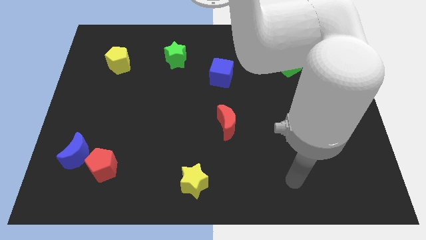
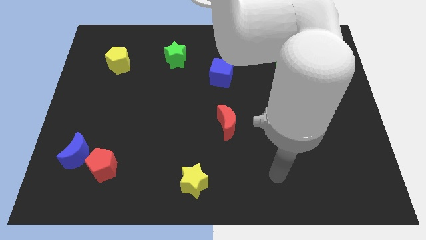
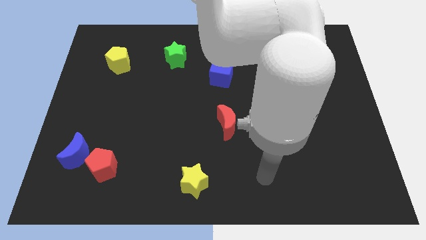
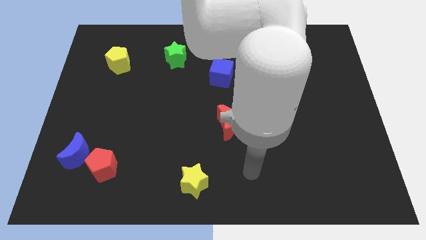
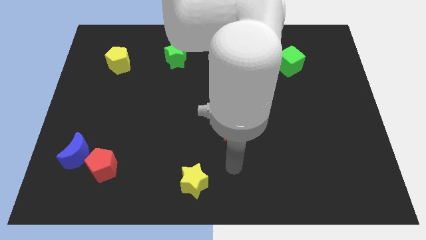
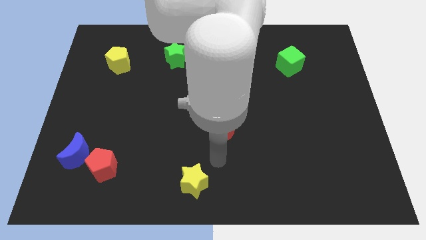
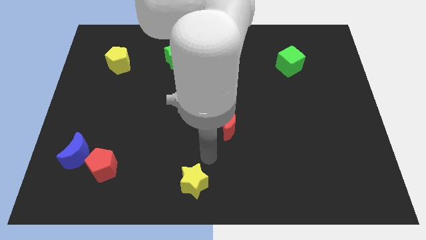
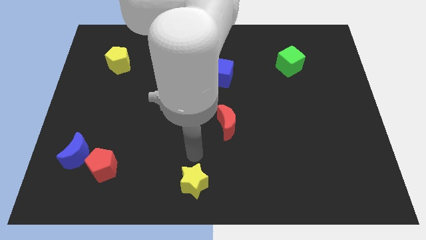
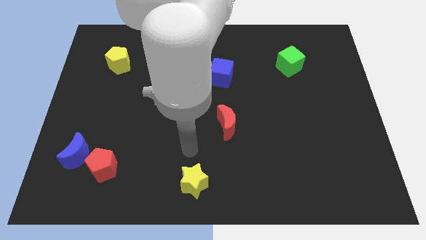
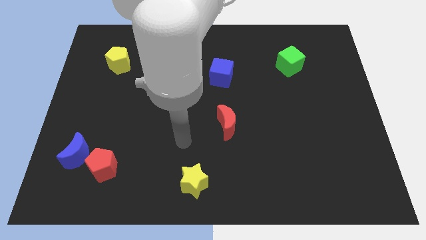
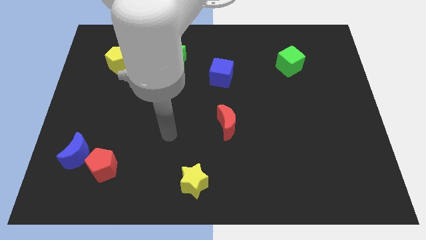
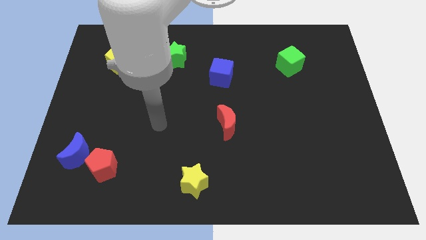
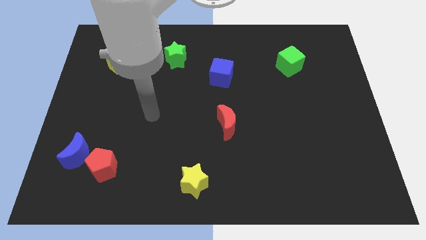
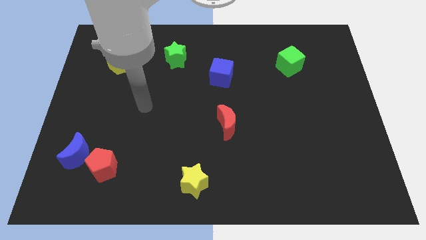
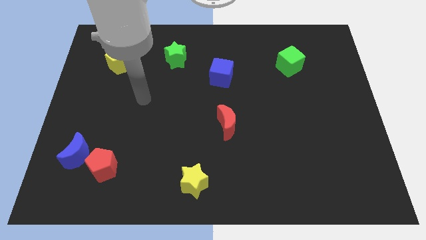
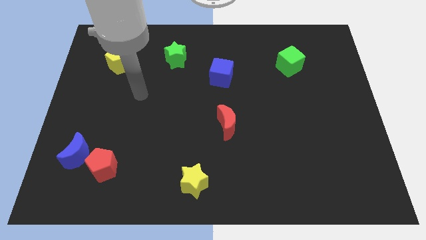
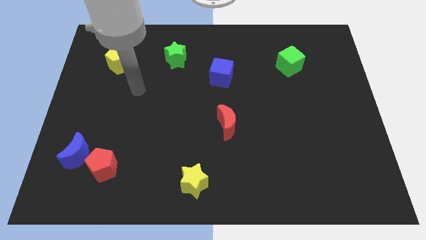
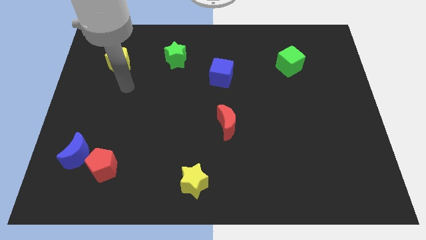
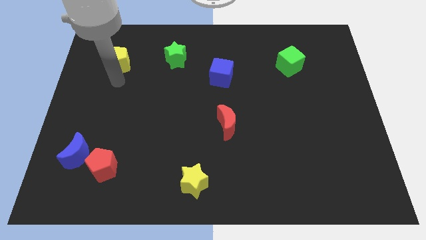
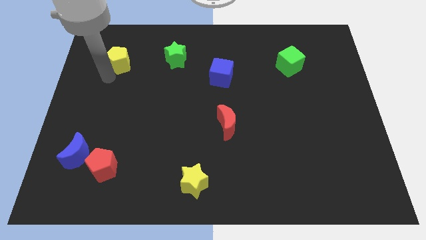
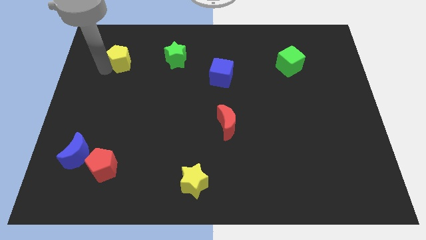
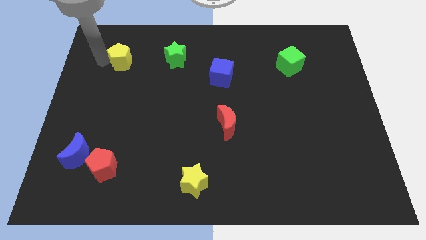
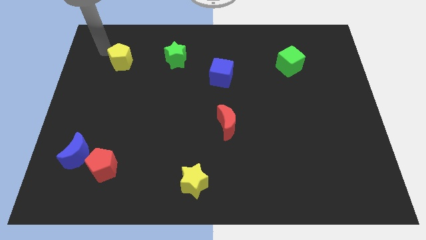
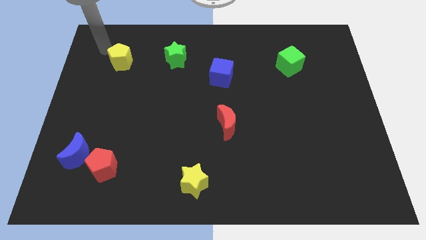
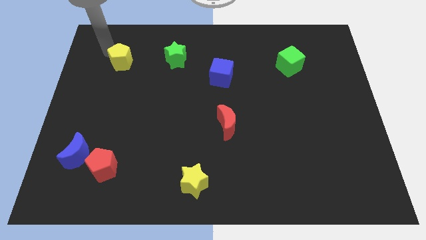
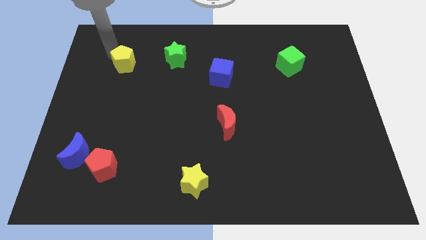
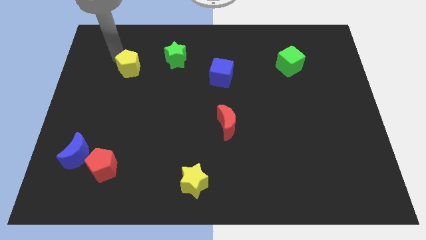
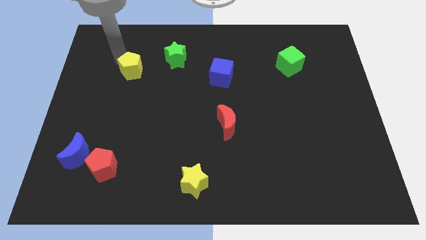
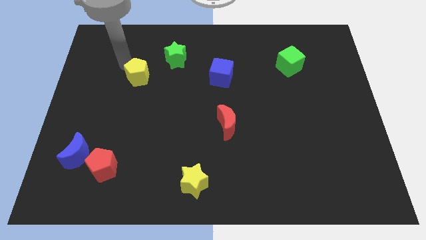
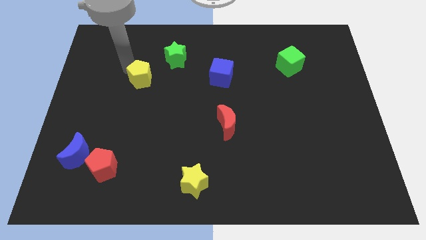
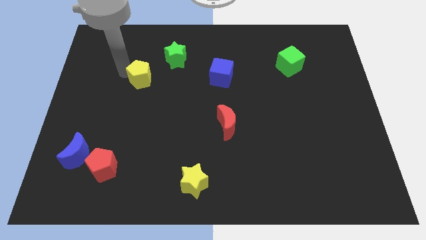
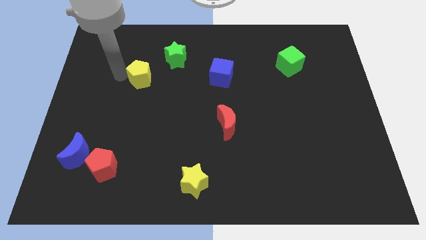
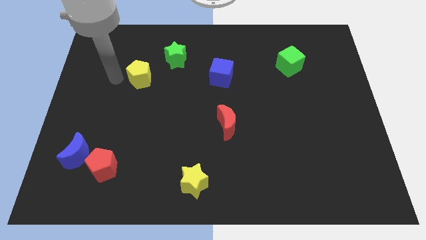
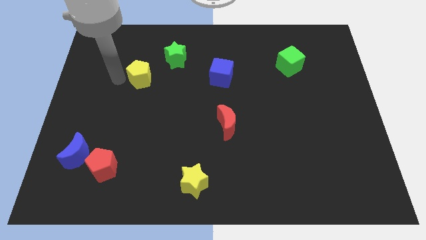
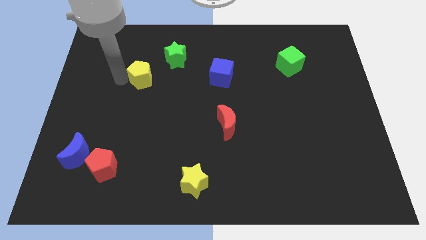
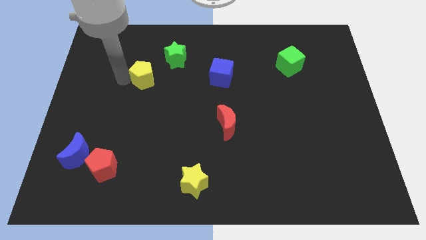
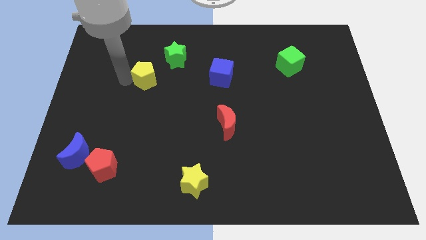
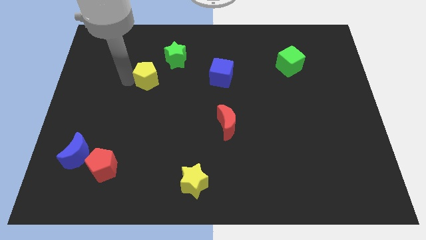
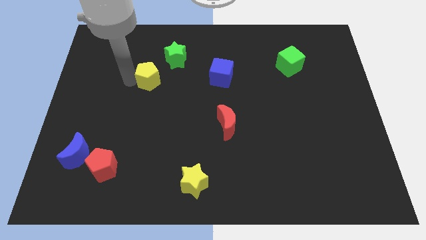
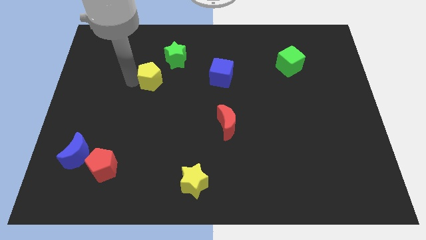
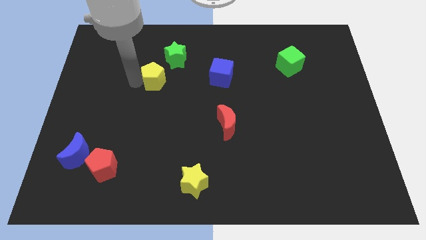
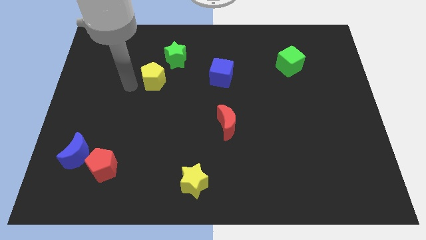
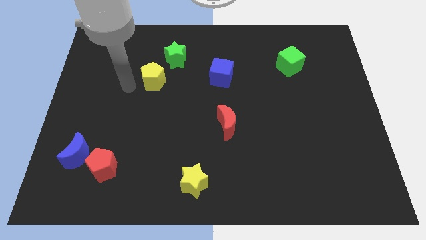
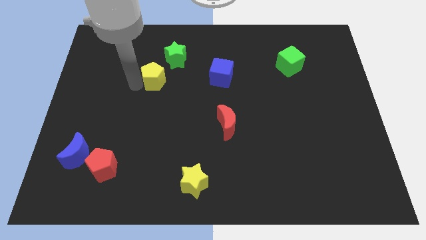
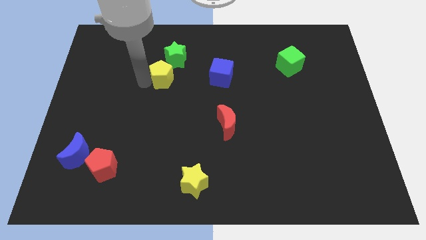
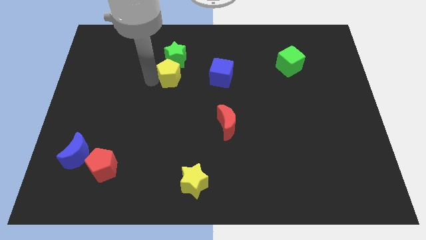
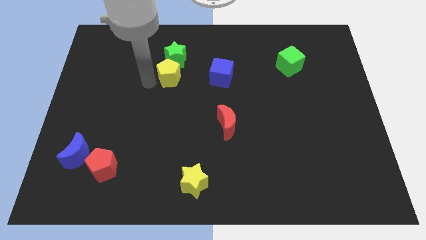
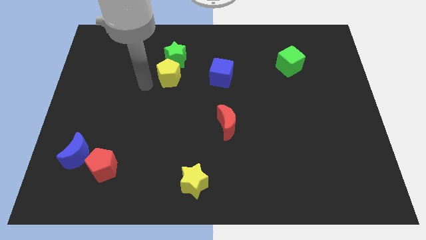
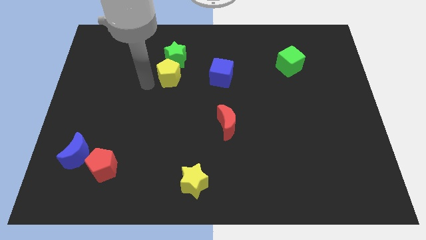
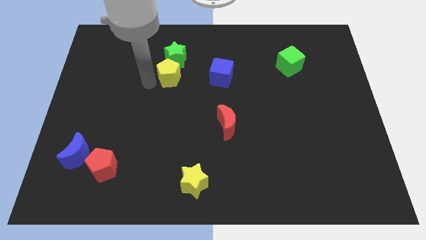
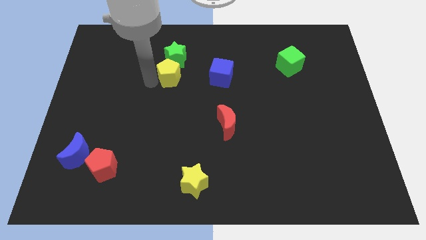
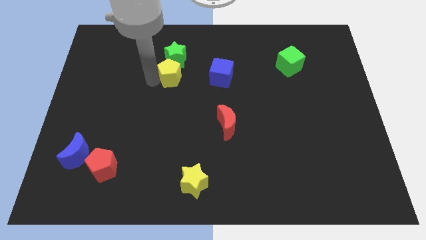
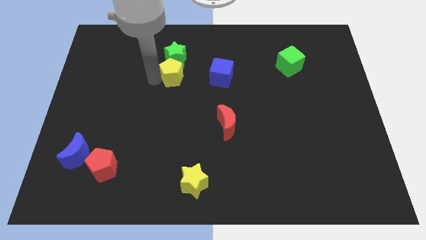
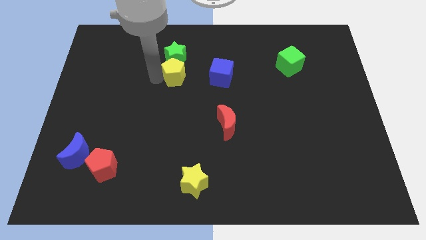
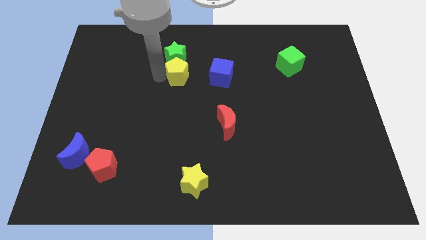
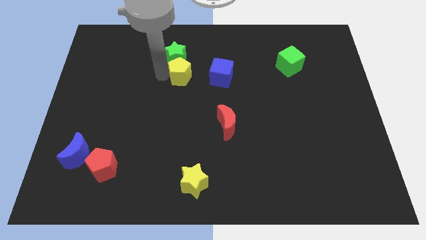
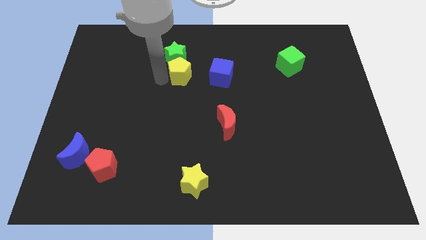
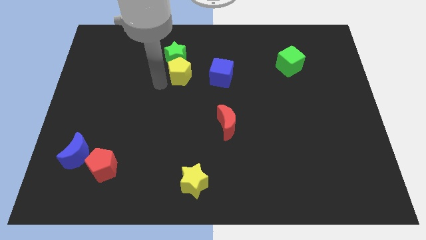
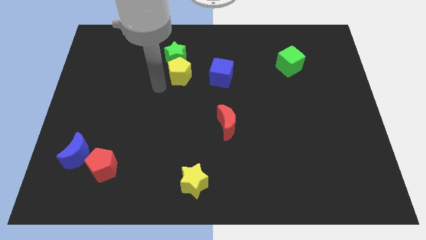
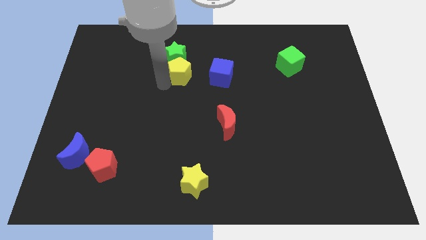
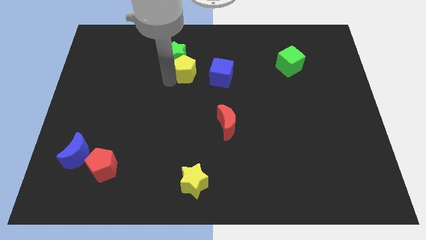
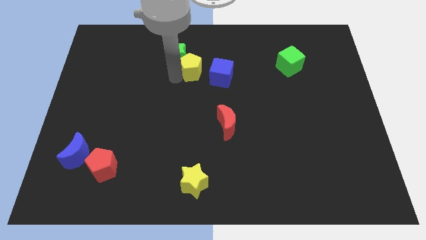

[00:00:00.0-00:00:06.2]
slide the yellow pentagon to the top left side of the blue cube
